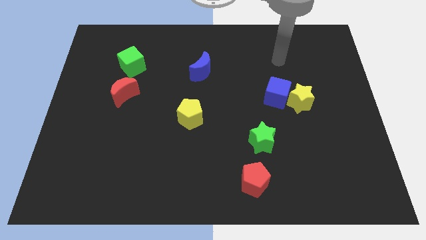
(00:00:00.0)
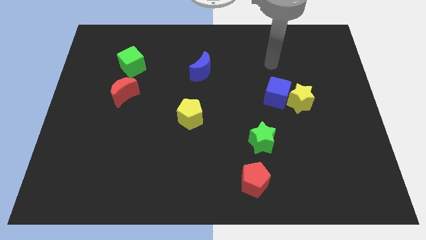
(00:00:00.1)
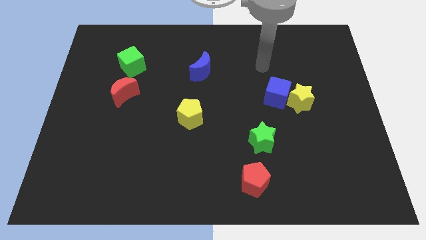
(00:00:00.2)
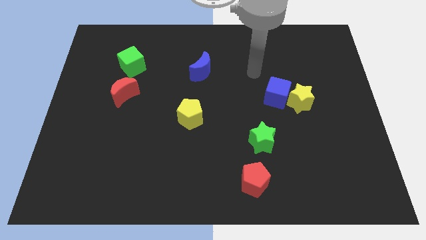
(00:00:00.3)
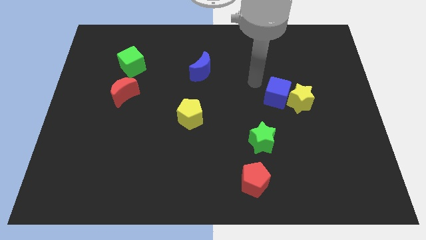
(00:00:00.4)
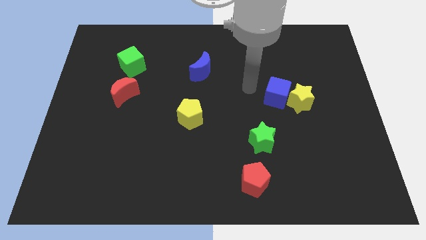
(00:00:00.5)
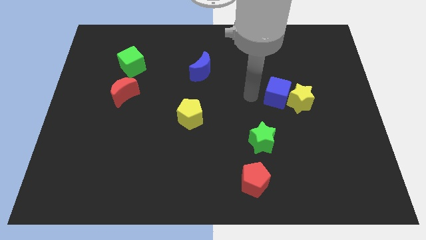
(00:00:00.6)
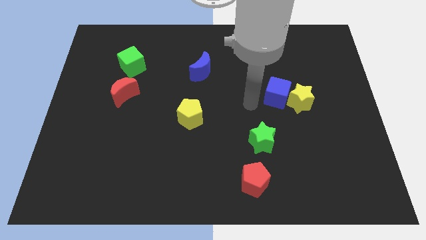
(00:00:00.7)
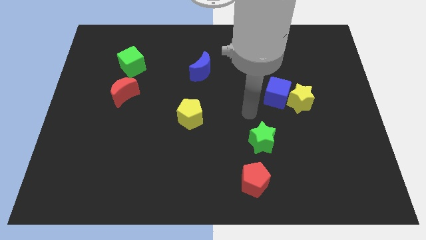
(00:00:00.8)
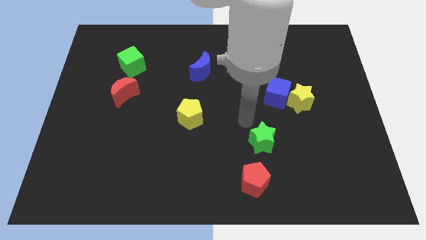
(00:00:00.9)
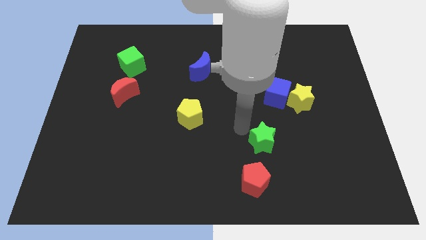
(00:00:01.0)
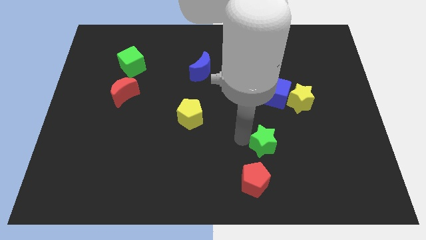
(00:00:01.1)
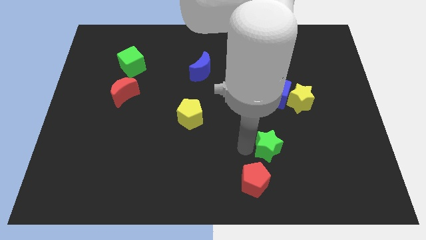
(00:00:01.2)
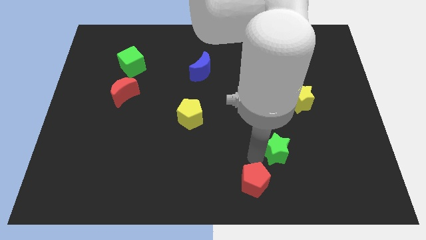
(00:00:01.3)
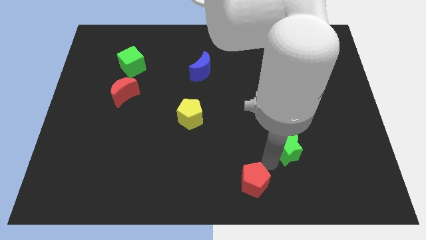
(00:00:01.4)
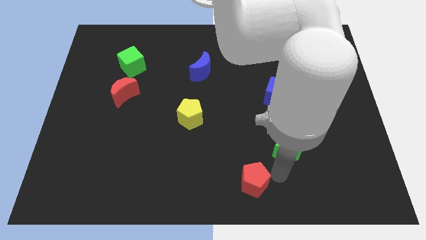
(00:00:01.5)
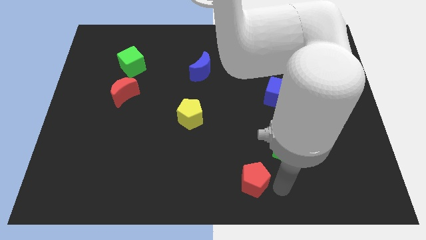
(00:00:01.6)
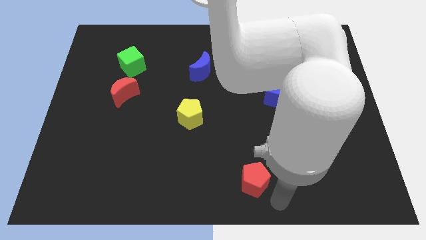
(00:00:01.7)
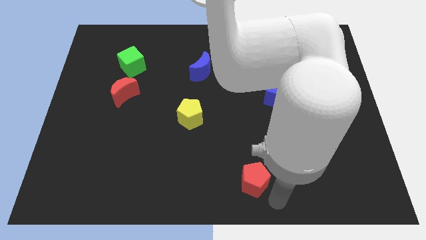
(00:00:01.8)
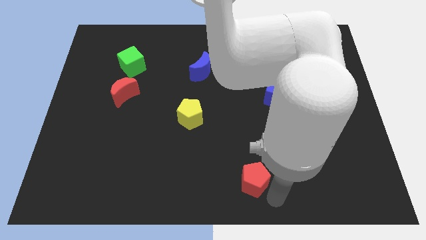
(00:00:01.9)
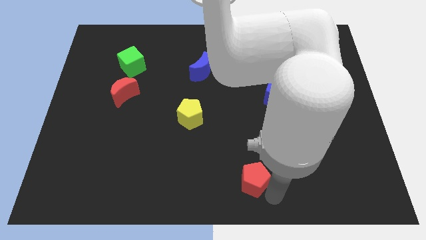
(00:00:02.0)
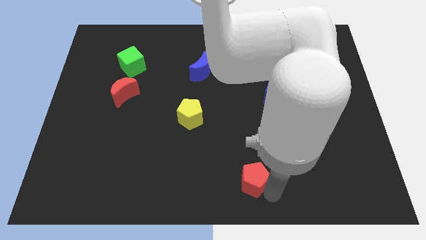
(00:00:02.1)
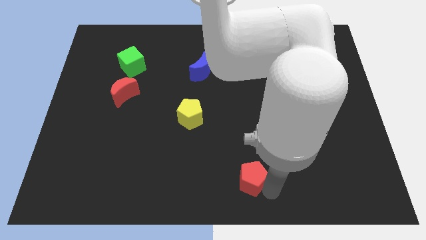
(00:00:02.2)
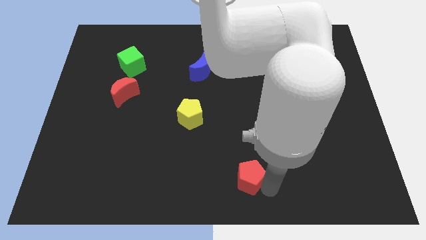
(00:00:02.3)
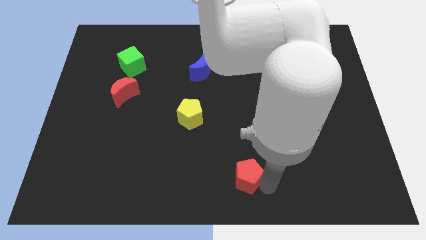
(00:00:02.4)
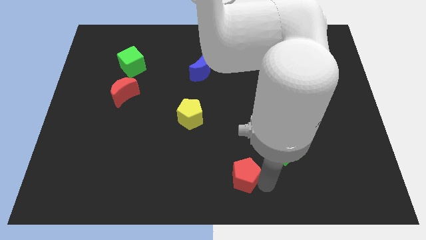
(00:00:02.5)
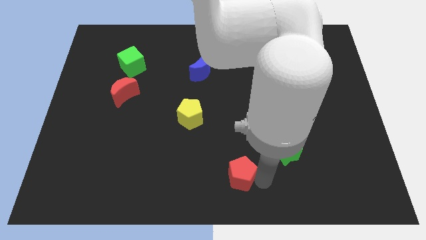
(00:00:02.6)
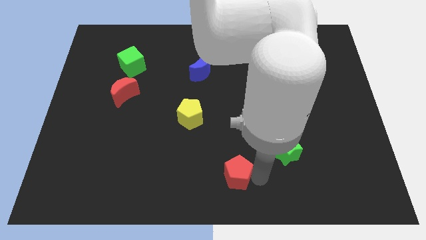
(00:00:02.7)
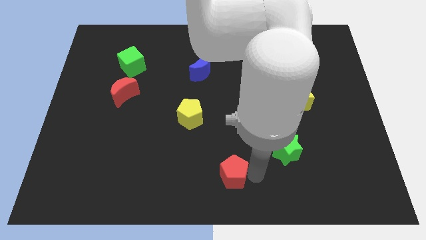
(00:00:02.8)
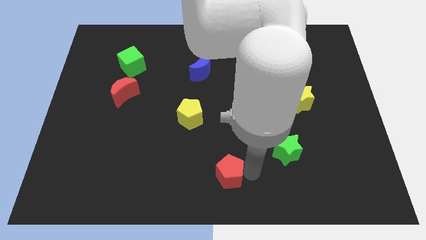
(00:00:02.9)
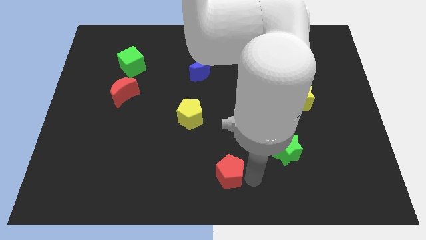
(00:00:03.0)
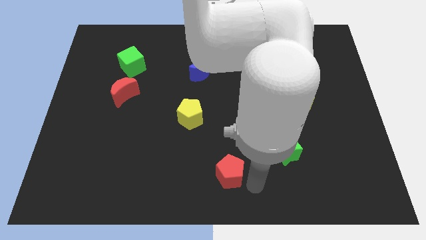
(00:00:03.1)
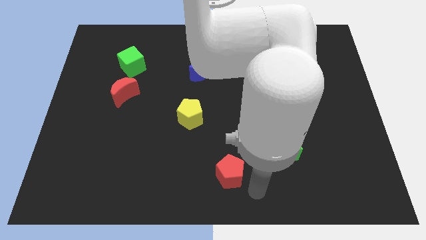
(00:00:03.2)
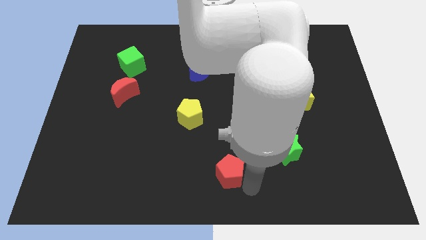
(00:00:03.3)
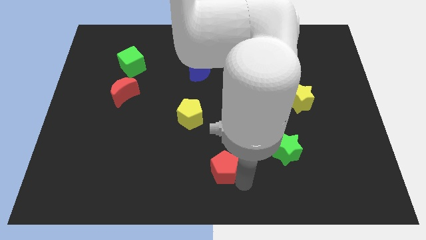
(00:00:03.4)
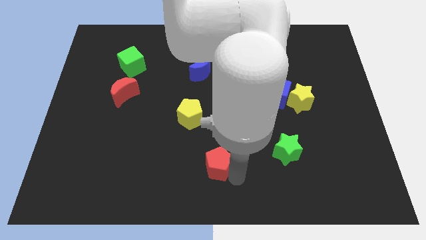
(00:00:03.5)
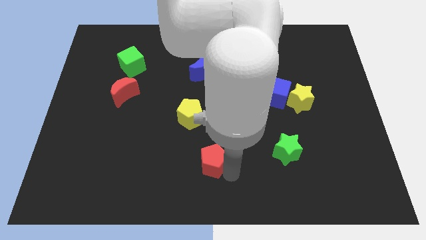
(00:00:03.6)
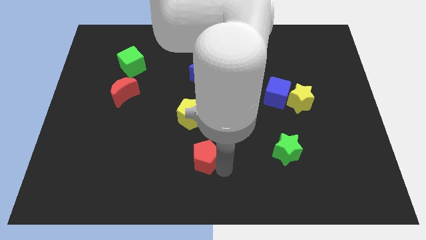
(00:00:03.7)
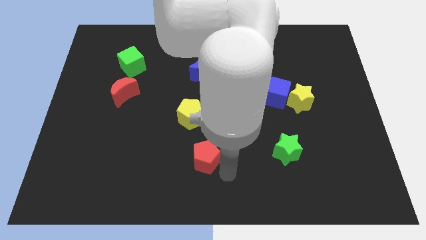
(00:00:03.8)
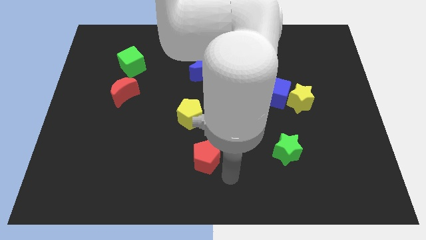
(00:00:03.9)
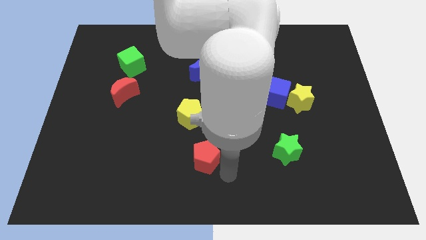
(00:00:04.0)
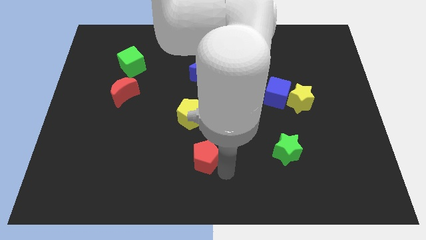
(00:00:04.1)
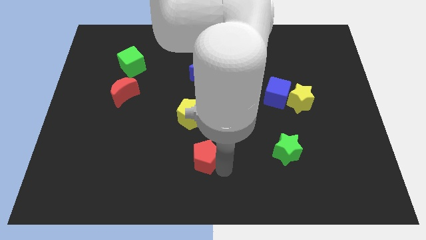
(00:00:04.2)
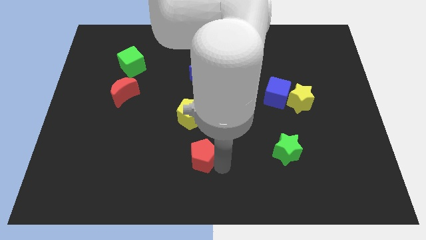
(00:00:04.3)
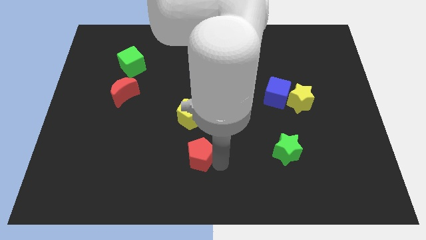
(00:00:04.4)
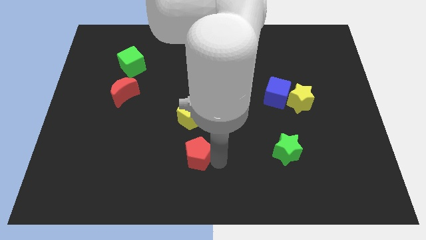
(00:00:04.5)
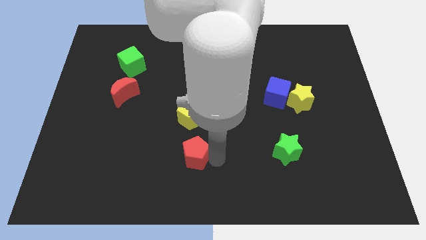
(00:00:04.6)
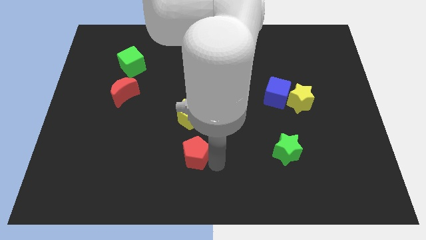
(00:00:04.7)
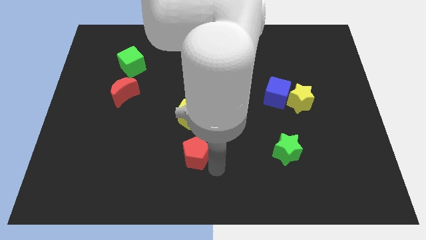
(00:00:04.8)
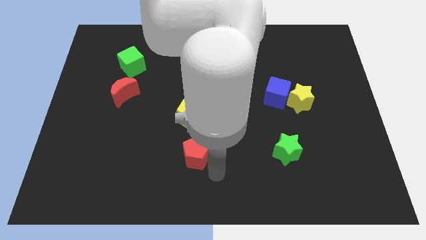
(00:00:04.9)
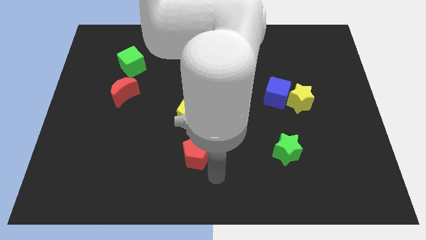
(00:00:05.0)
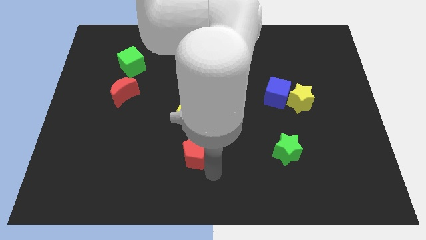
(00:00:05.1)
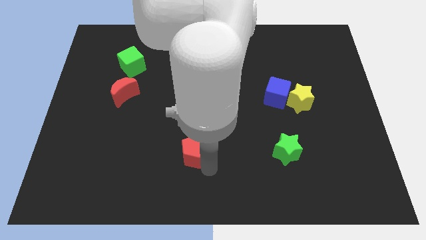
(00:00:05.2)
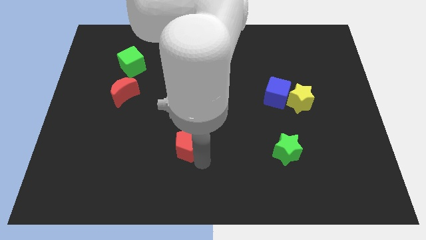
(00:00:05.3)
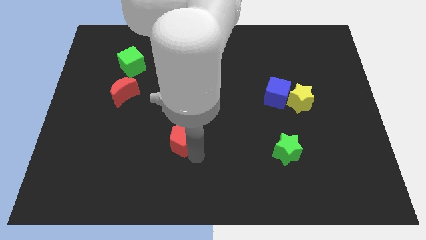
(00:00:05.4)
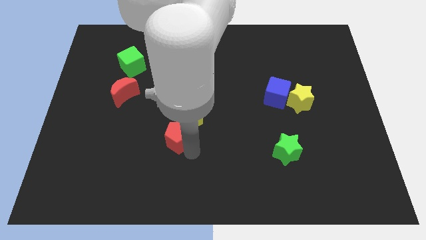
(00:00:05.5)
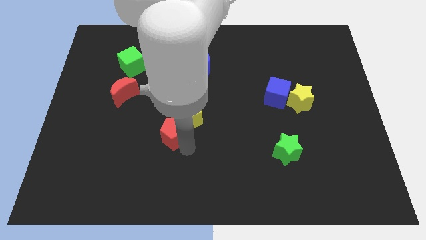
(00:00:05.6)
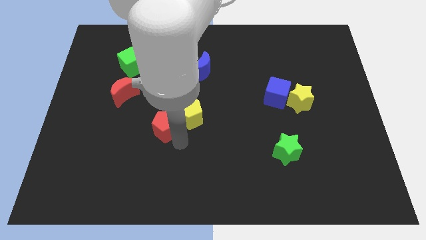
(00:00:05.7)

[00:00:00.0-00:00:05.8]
move the red pentagon upwards and then left

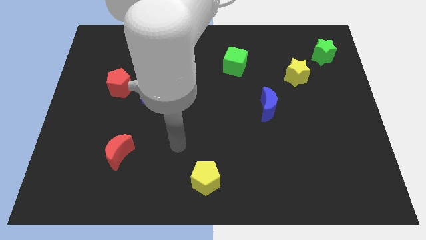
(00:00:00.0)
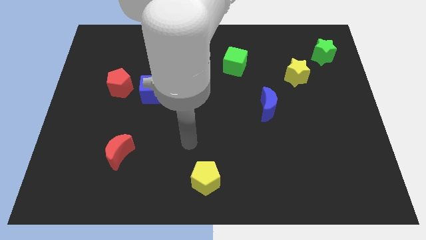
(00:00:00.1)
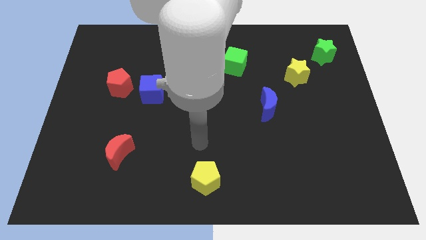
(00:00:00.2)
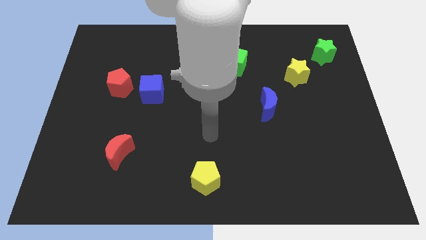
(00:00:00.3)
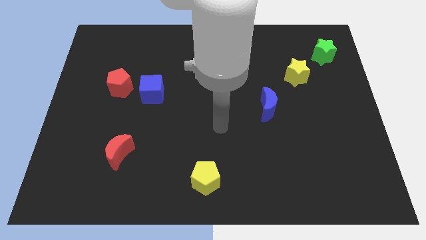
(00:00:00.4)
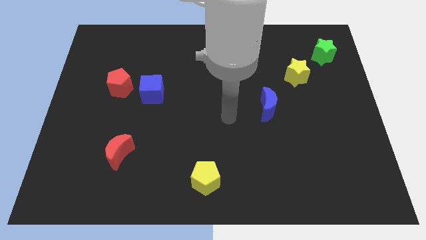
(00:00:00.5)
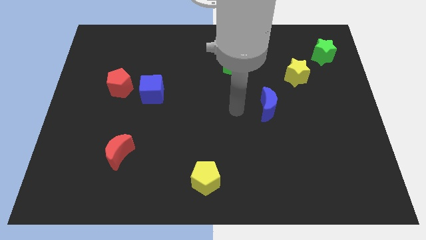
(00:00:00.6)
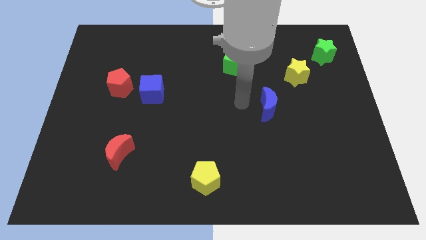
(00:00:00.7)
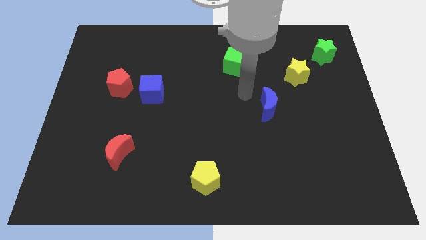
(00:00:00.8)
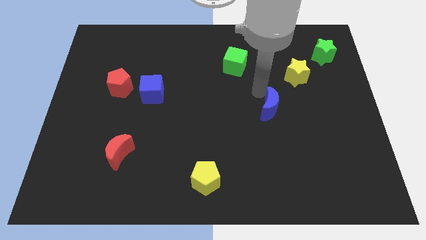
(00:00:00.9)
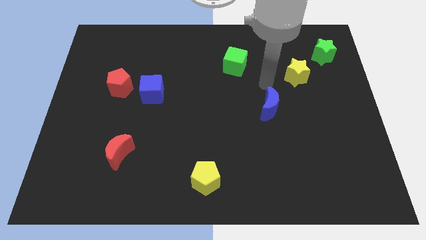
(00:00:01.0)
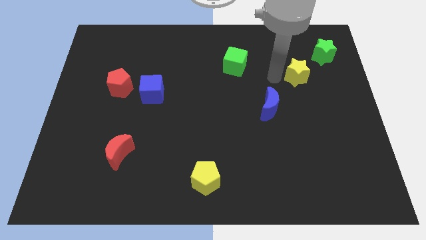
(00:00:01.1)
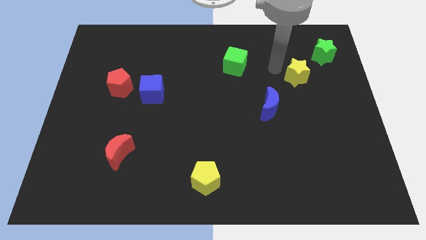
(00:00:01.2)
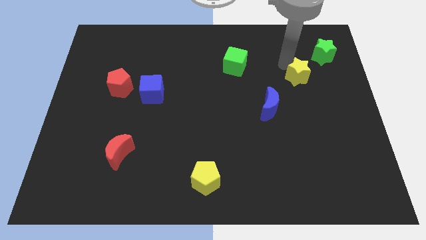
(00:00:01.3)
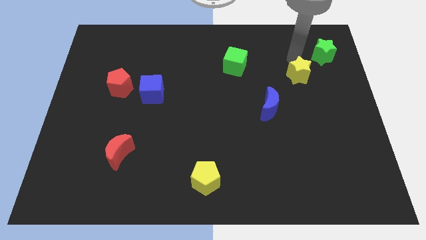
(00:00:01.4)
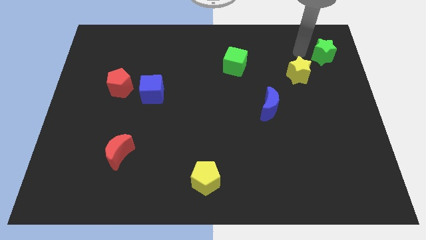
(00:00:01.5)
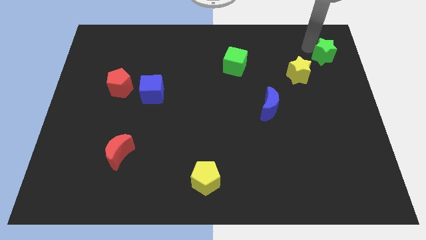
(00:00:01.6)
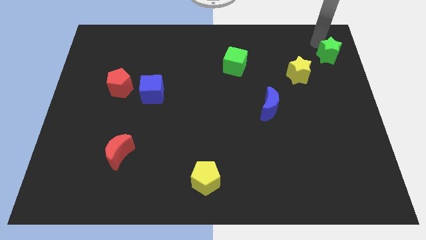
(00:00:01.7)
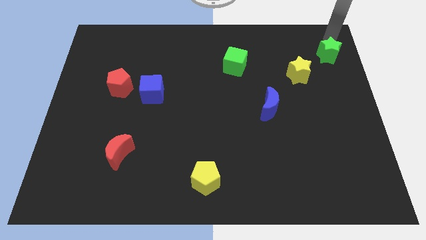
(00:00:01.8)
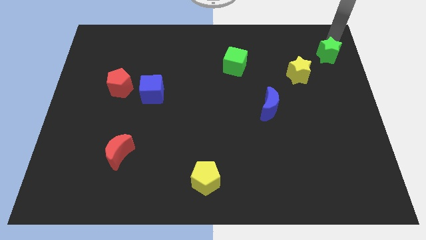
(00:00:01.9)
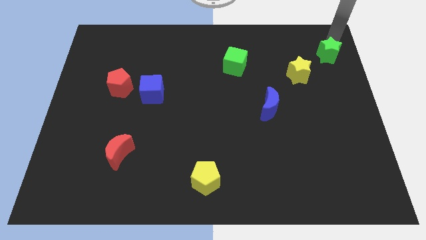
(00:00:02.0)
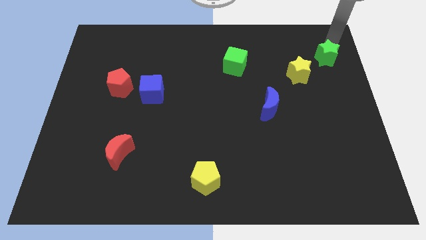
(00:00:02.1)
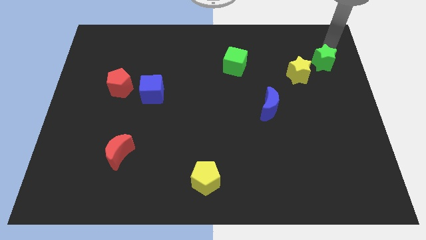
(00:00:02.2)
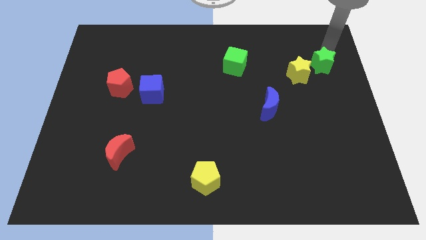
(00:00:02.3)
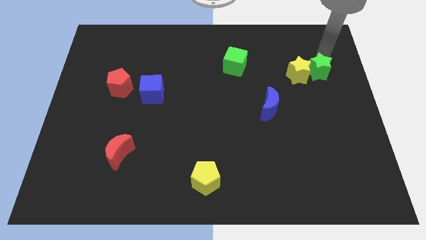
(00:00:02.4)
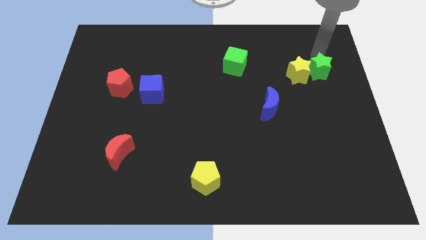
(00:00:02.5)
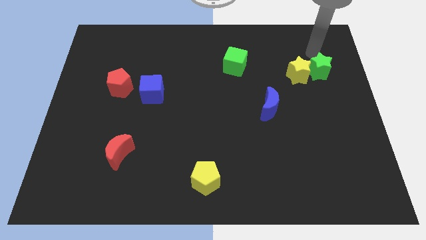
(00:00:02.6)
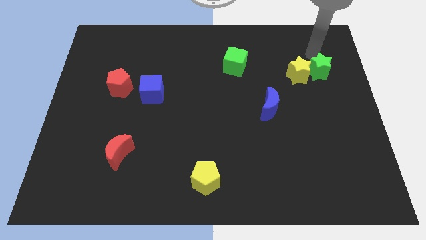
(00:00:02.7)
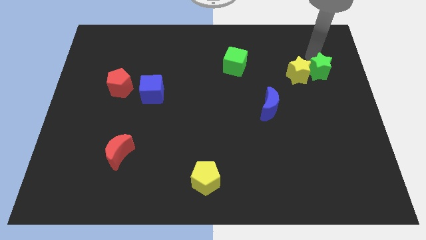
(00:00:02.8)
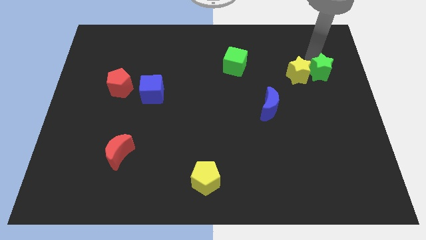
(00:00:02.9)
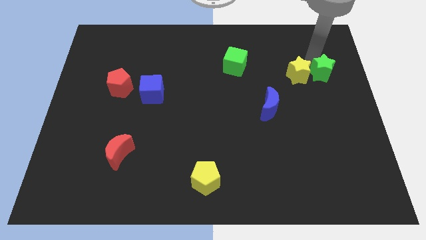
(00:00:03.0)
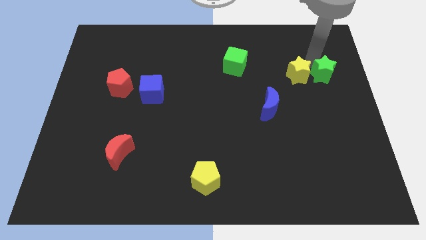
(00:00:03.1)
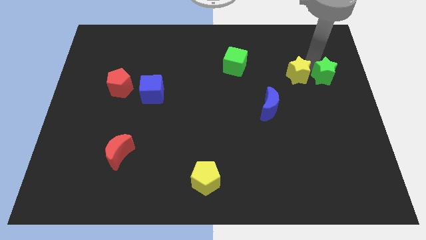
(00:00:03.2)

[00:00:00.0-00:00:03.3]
move the green star down somewhat
